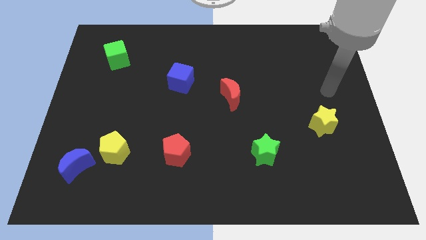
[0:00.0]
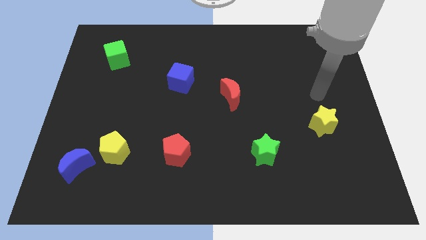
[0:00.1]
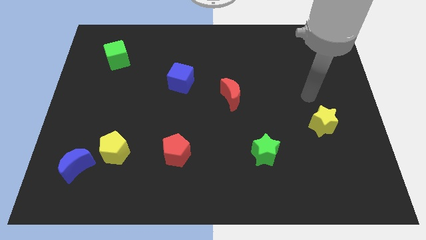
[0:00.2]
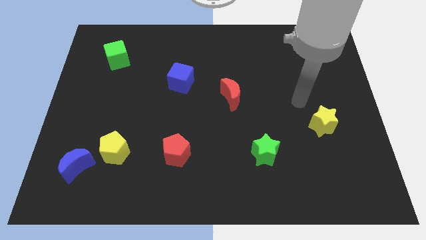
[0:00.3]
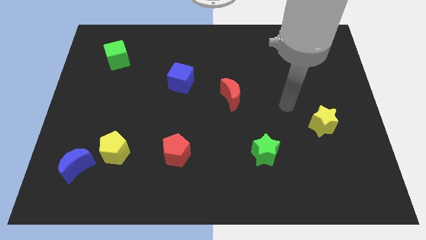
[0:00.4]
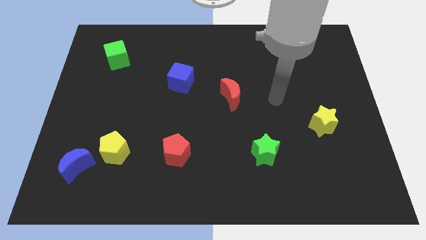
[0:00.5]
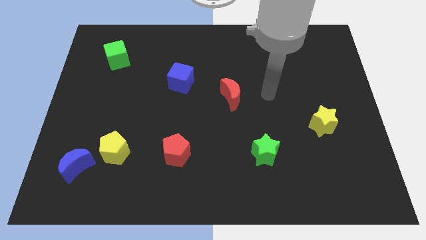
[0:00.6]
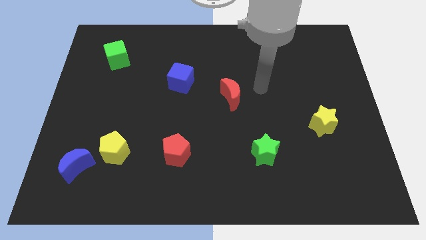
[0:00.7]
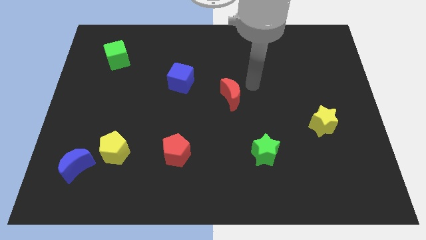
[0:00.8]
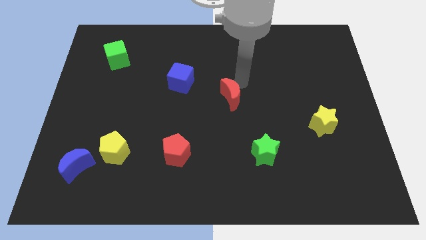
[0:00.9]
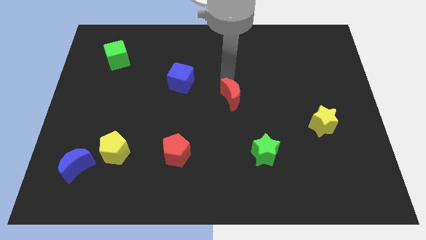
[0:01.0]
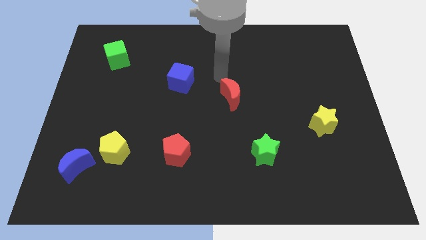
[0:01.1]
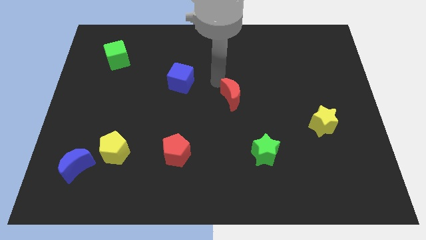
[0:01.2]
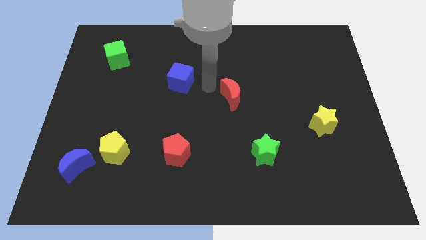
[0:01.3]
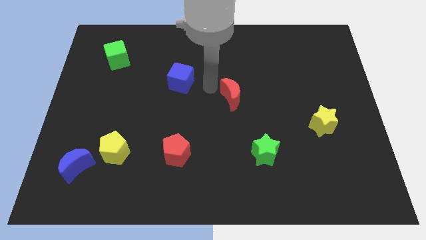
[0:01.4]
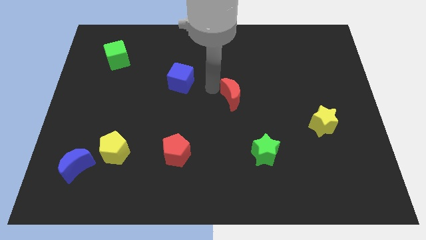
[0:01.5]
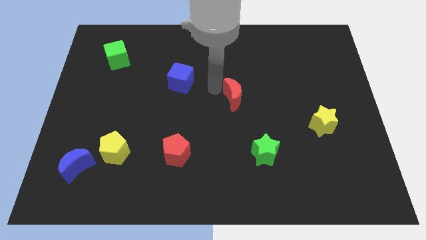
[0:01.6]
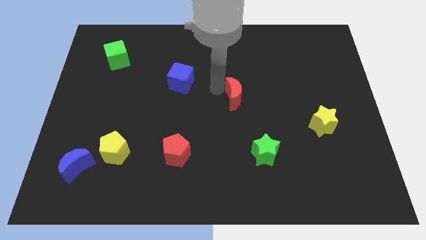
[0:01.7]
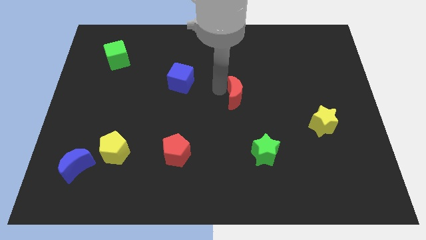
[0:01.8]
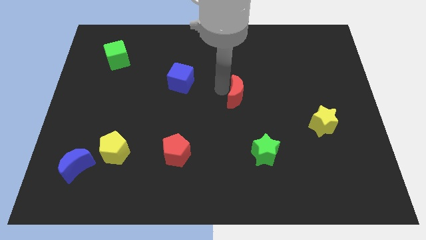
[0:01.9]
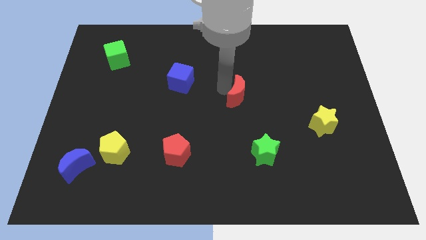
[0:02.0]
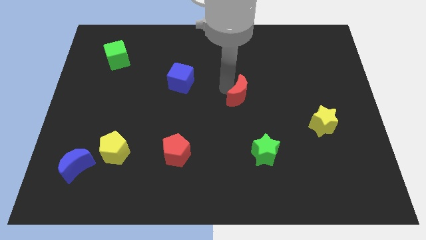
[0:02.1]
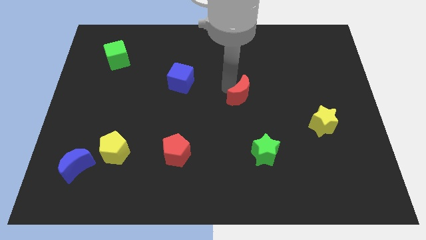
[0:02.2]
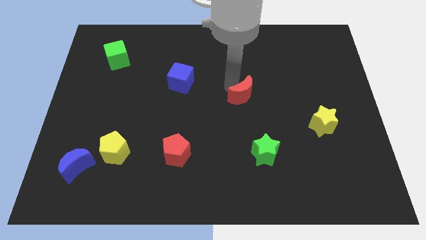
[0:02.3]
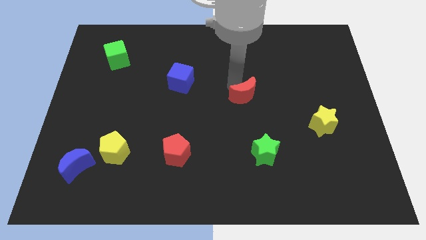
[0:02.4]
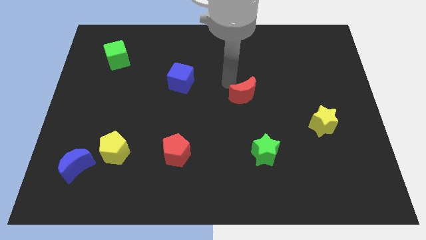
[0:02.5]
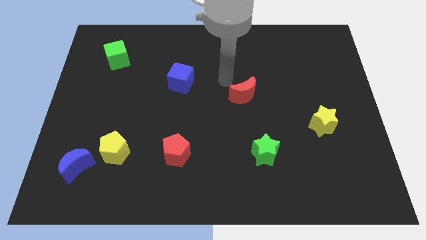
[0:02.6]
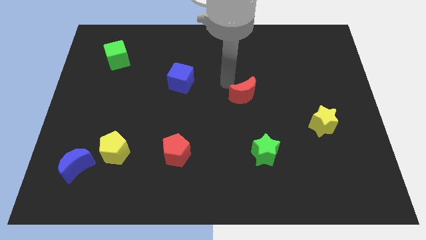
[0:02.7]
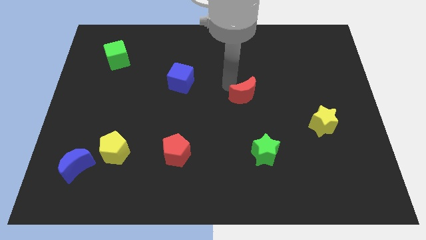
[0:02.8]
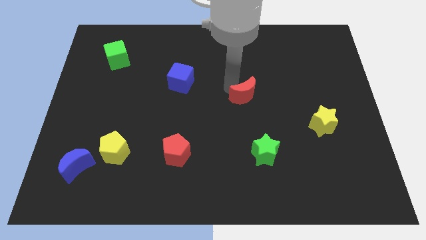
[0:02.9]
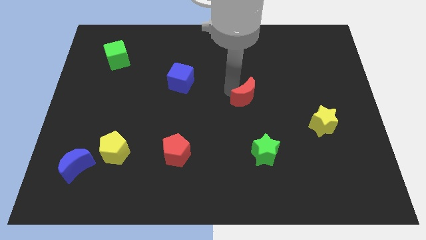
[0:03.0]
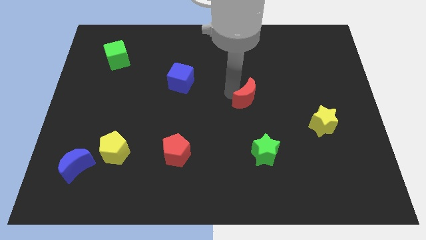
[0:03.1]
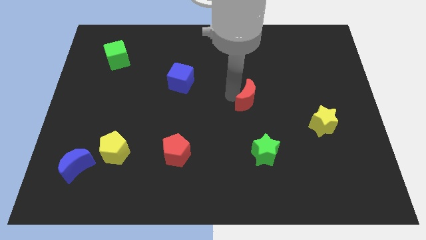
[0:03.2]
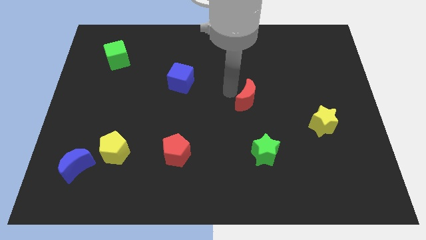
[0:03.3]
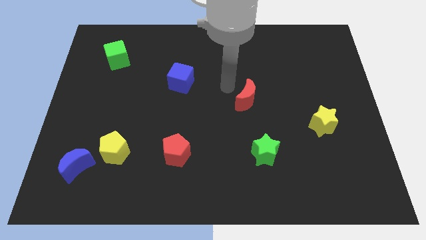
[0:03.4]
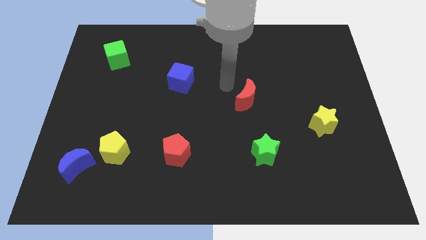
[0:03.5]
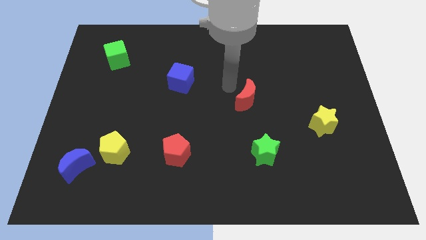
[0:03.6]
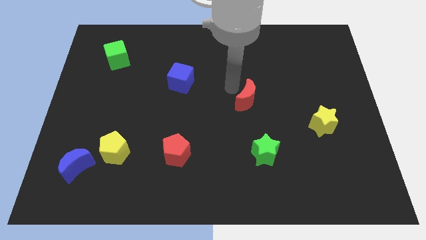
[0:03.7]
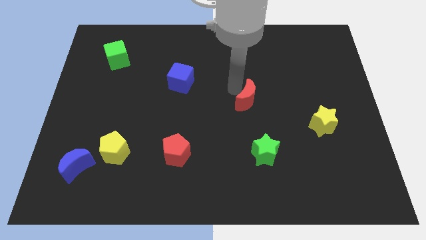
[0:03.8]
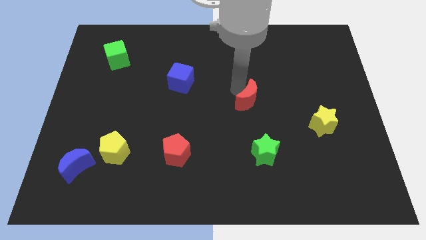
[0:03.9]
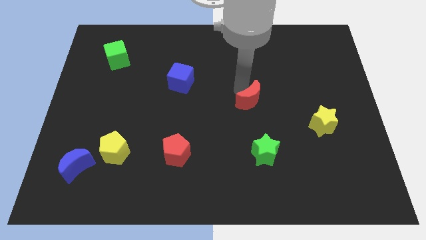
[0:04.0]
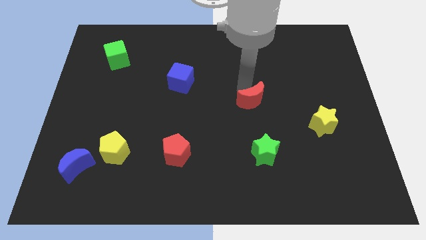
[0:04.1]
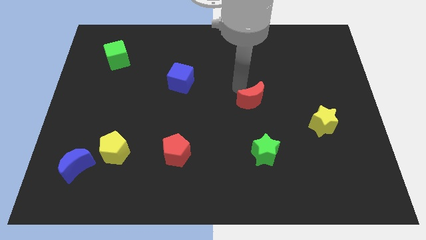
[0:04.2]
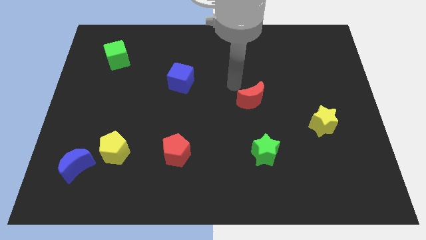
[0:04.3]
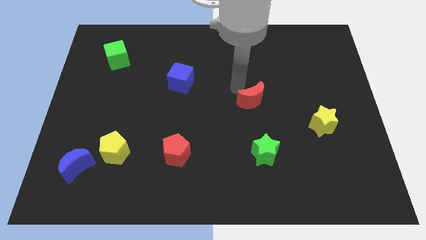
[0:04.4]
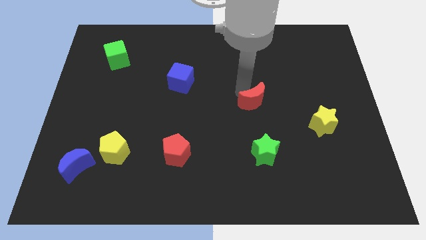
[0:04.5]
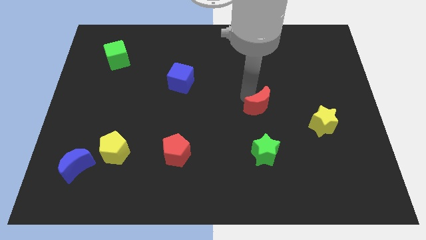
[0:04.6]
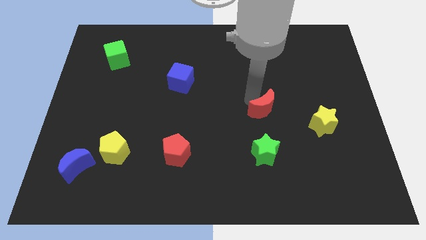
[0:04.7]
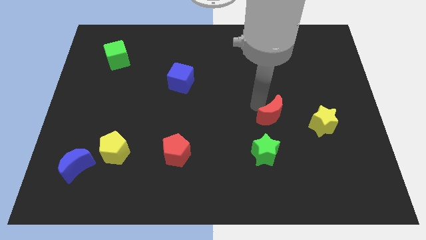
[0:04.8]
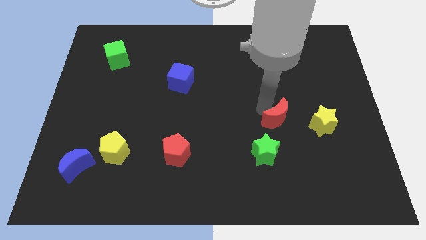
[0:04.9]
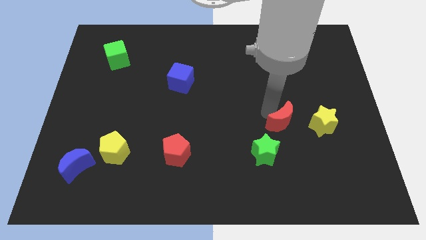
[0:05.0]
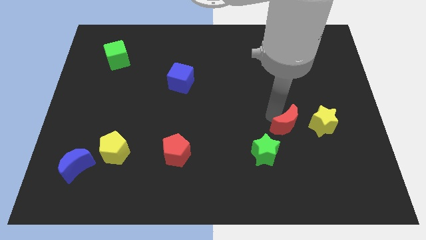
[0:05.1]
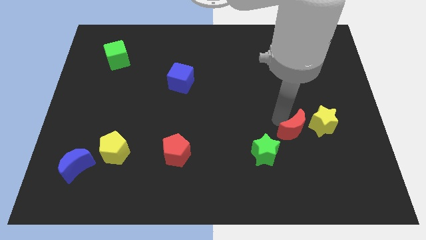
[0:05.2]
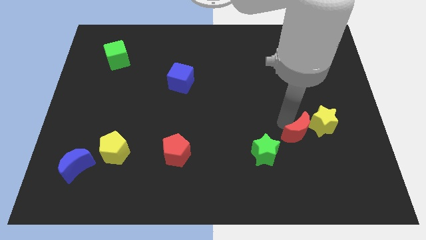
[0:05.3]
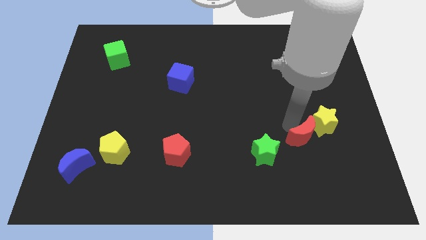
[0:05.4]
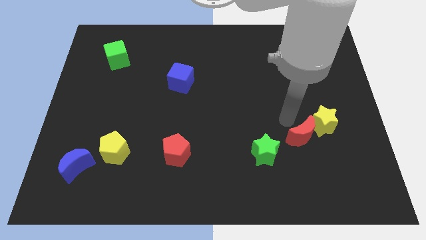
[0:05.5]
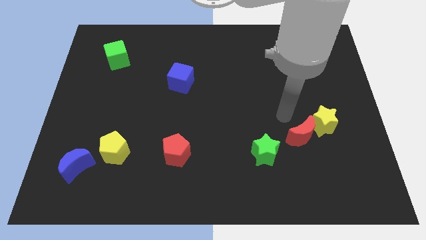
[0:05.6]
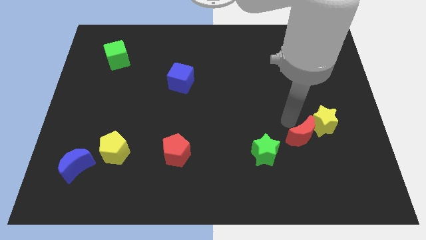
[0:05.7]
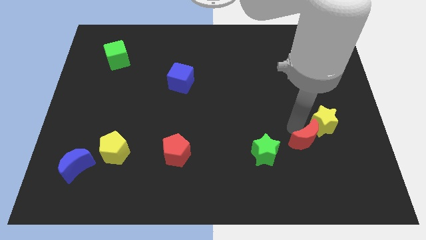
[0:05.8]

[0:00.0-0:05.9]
push the red moon down and to the right

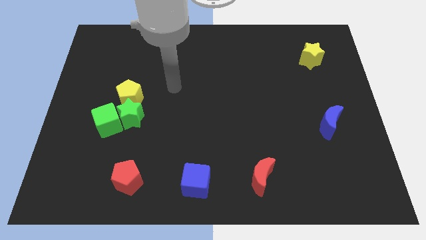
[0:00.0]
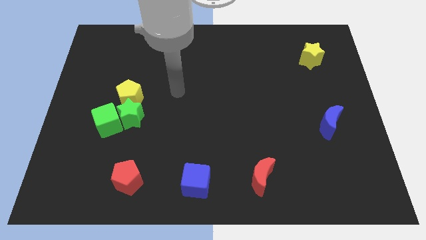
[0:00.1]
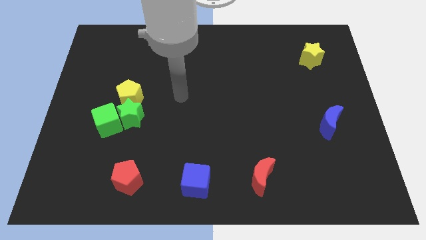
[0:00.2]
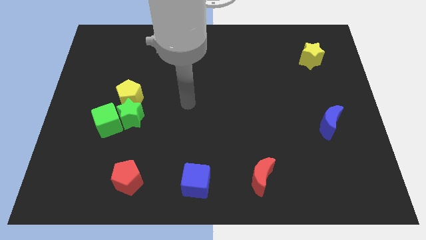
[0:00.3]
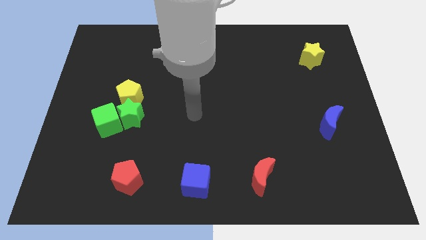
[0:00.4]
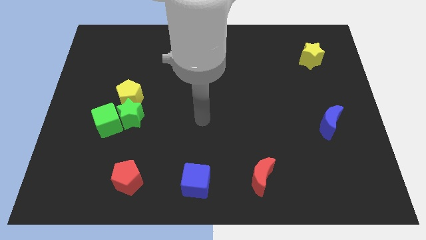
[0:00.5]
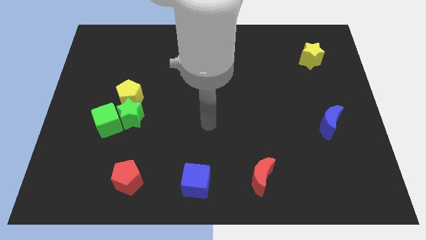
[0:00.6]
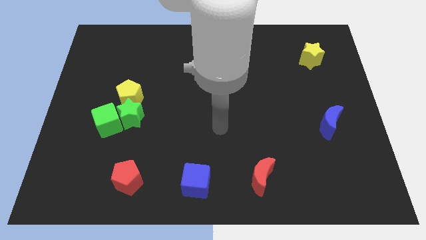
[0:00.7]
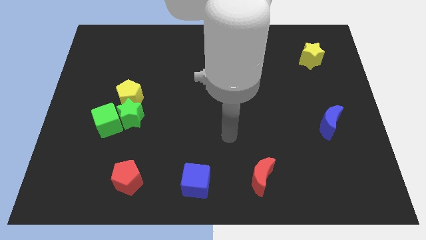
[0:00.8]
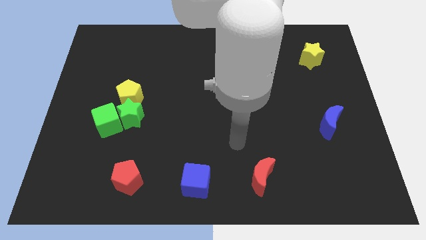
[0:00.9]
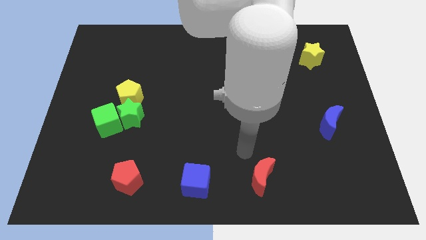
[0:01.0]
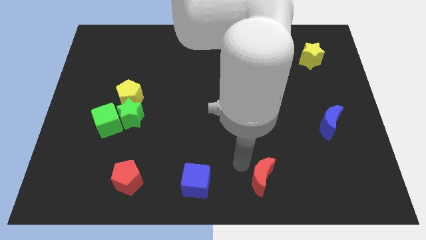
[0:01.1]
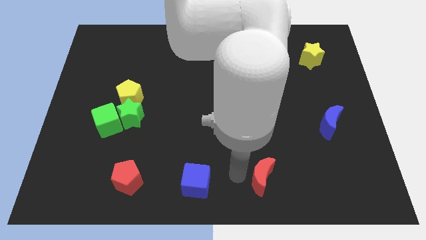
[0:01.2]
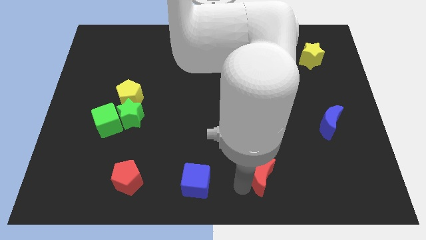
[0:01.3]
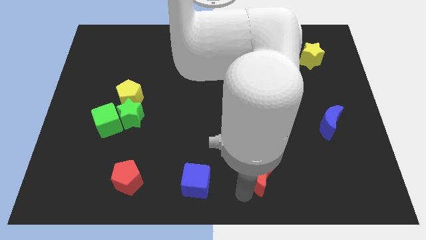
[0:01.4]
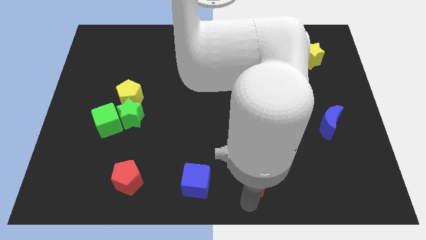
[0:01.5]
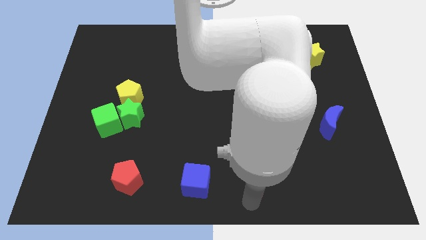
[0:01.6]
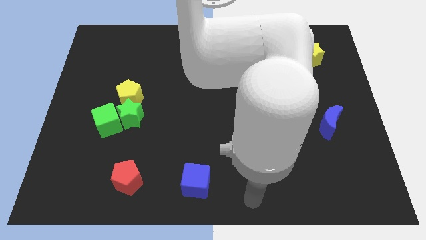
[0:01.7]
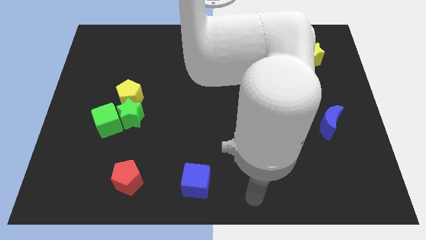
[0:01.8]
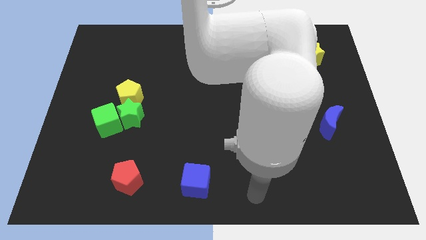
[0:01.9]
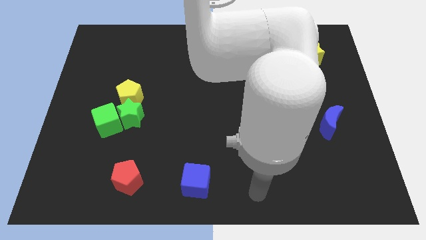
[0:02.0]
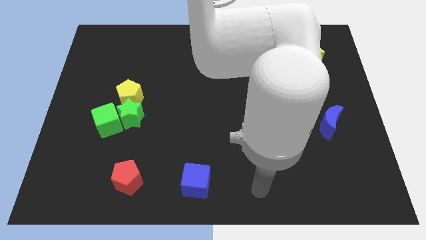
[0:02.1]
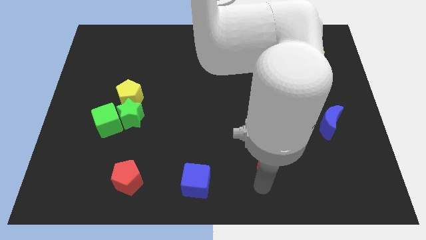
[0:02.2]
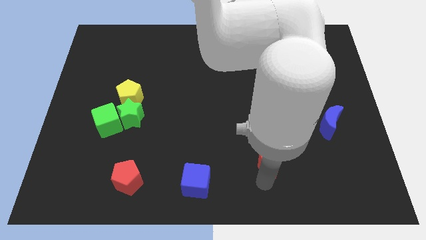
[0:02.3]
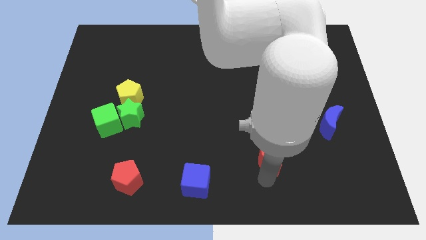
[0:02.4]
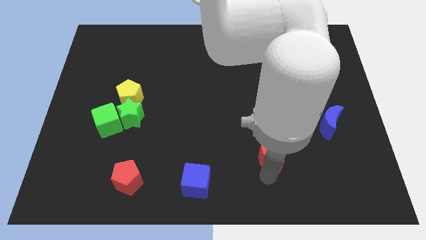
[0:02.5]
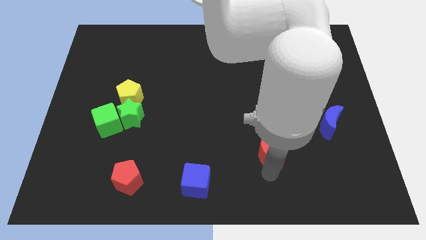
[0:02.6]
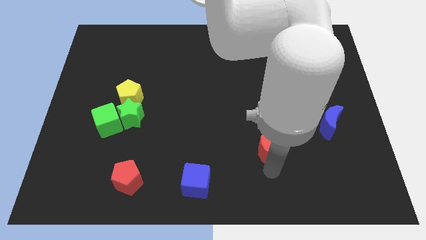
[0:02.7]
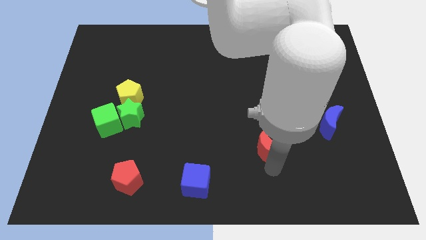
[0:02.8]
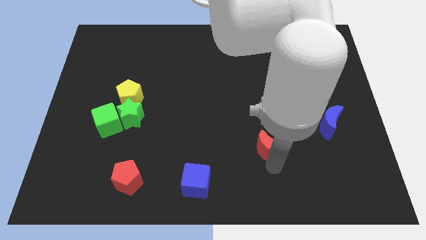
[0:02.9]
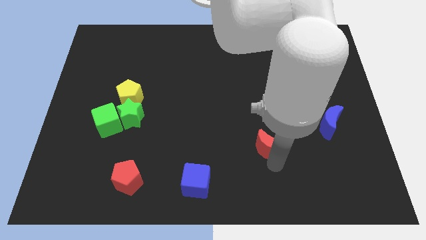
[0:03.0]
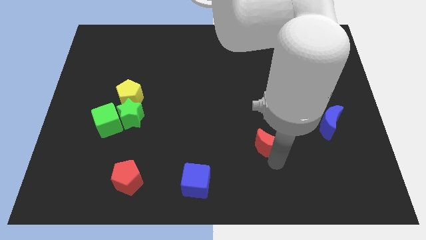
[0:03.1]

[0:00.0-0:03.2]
push the red moon upwards a little
